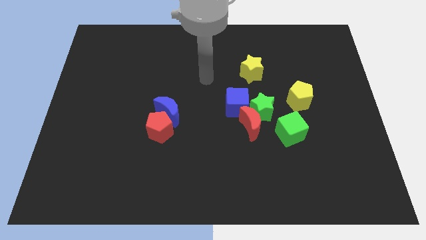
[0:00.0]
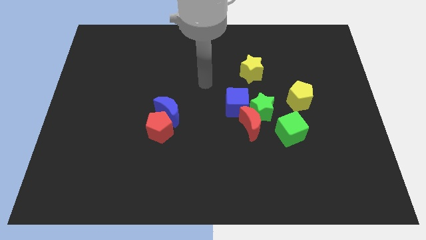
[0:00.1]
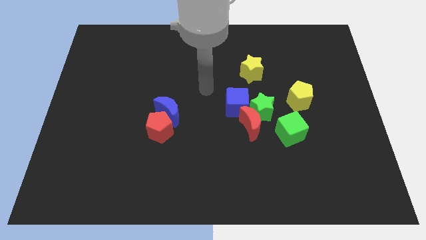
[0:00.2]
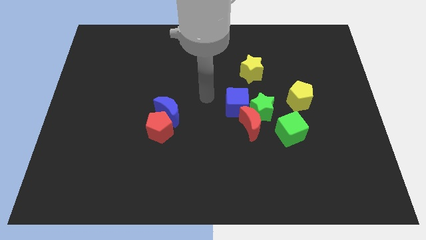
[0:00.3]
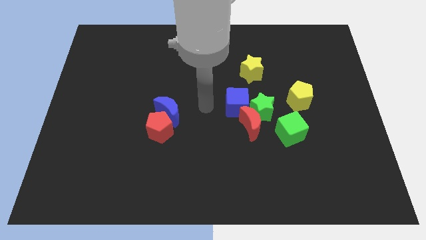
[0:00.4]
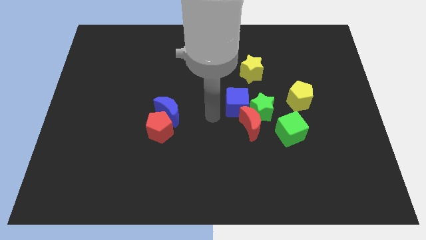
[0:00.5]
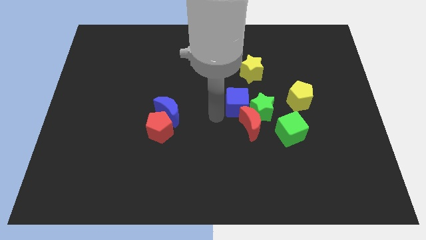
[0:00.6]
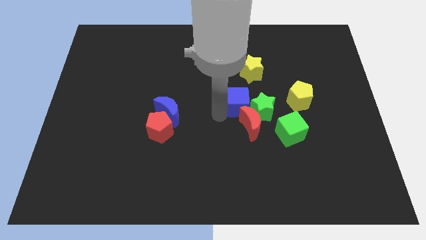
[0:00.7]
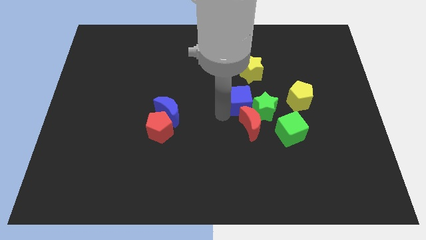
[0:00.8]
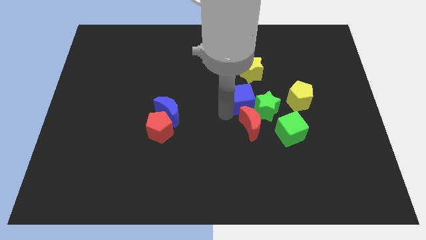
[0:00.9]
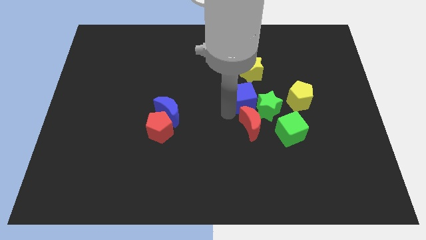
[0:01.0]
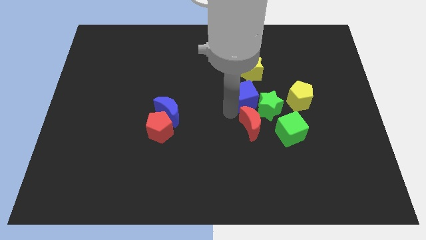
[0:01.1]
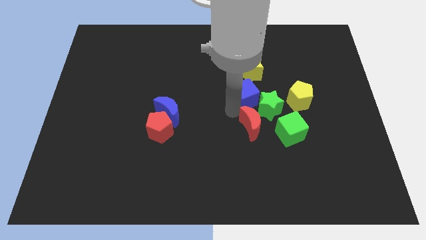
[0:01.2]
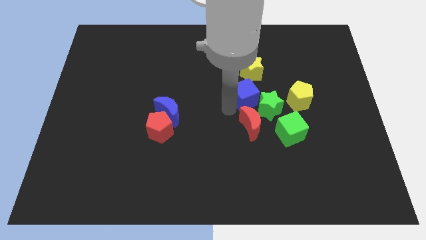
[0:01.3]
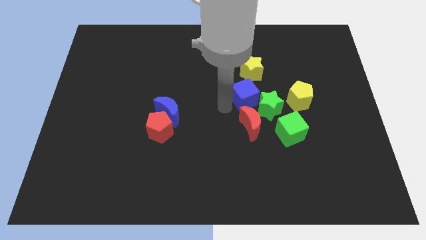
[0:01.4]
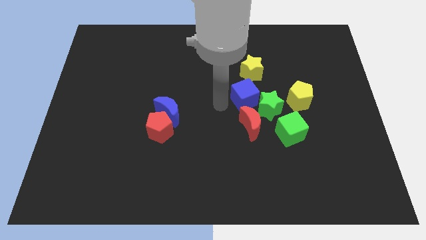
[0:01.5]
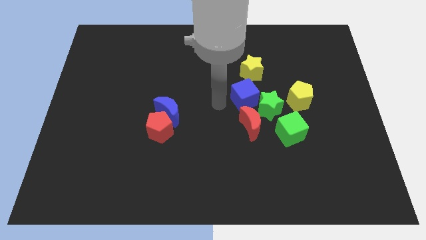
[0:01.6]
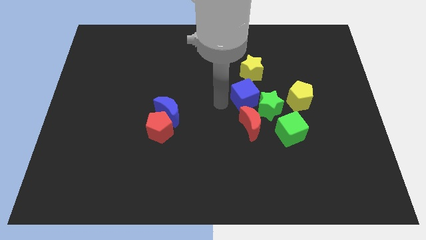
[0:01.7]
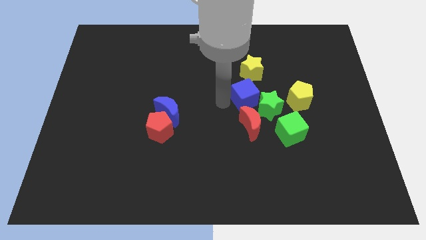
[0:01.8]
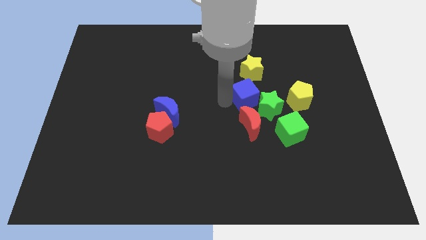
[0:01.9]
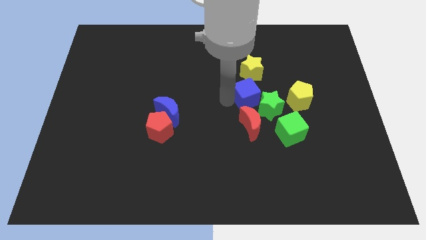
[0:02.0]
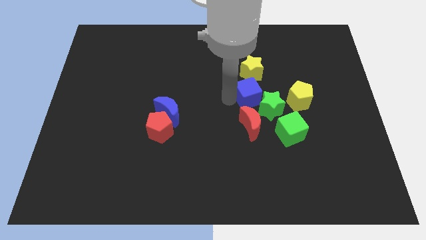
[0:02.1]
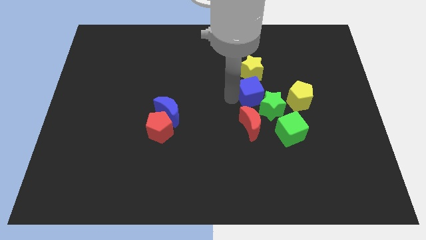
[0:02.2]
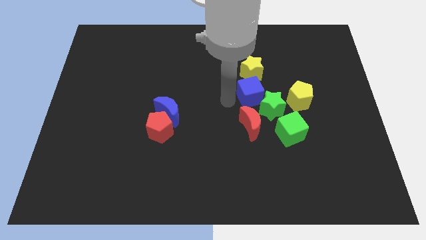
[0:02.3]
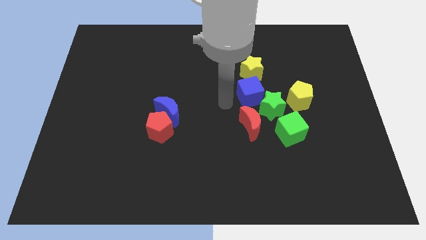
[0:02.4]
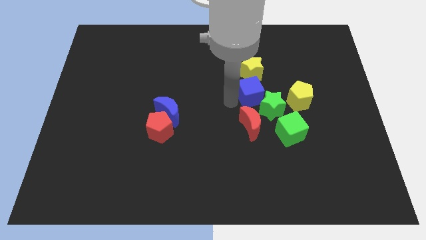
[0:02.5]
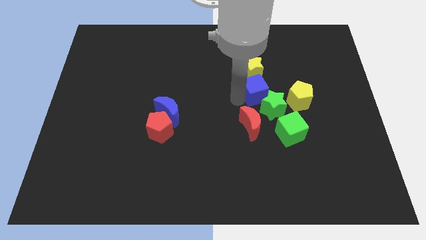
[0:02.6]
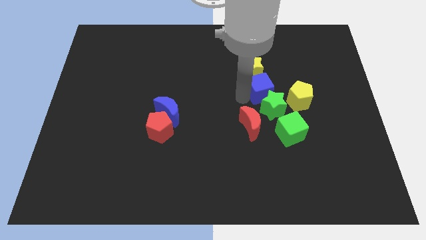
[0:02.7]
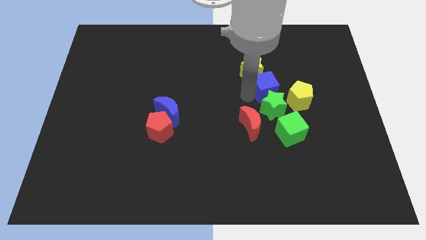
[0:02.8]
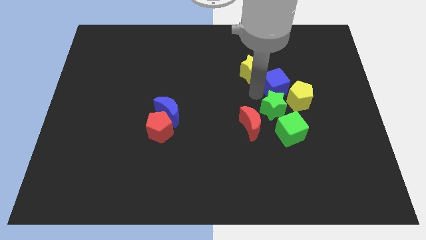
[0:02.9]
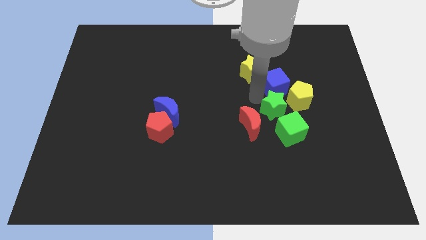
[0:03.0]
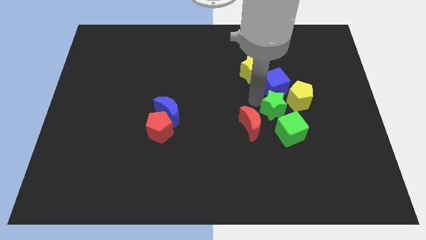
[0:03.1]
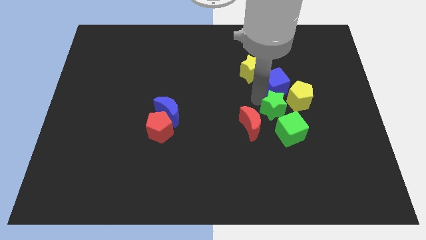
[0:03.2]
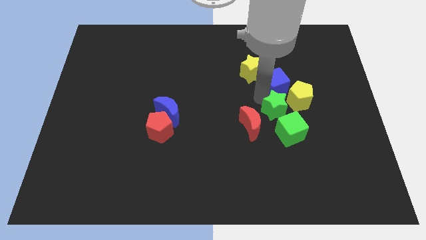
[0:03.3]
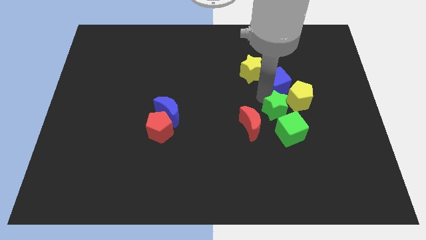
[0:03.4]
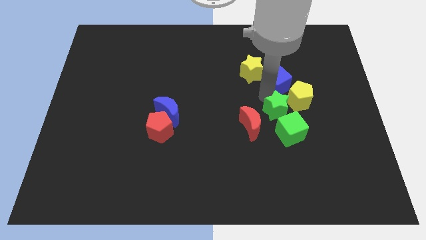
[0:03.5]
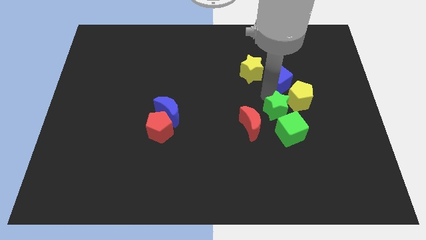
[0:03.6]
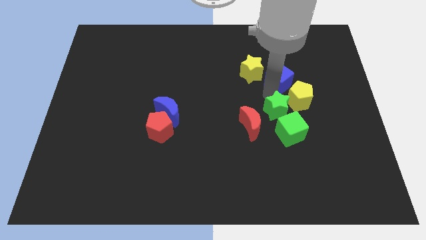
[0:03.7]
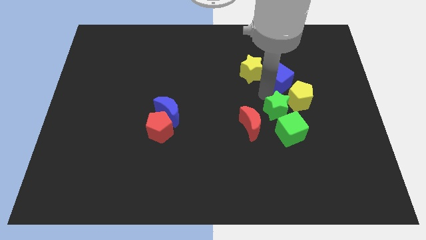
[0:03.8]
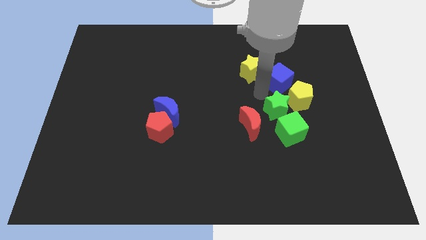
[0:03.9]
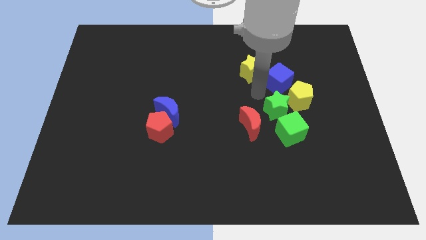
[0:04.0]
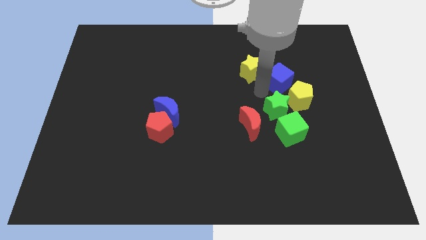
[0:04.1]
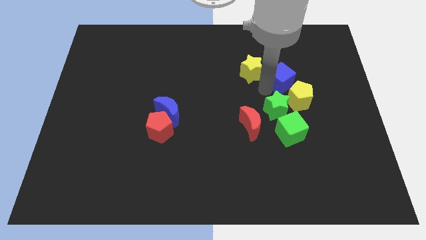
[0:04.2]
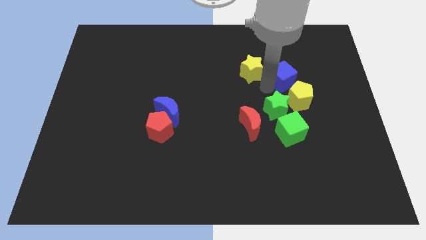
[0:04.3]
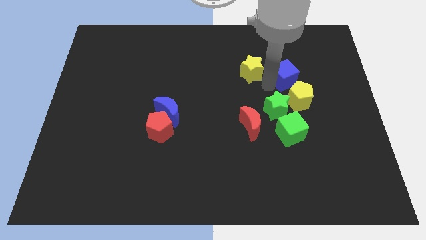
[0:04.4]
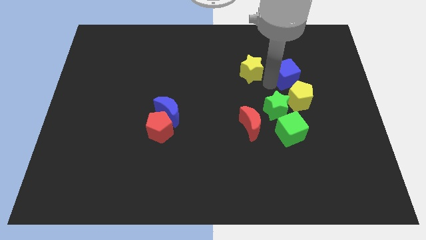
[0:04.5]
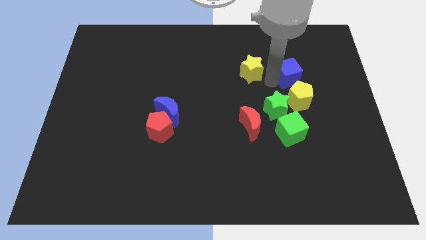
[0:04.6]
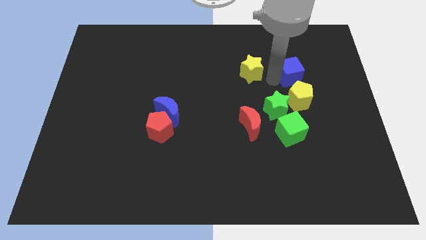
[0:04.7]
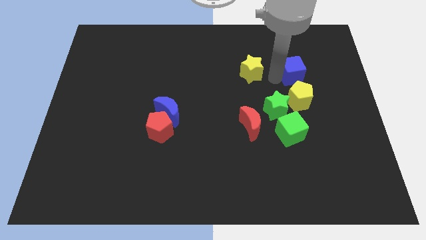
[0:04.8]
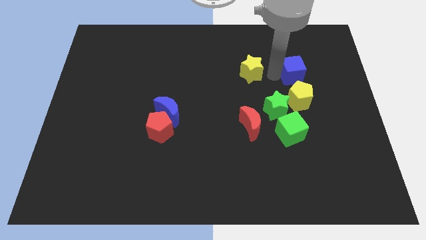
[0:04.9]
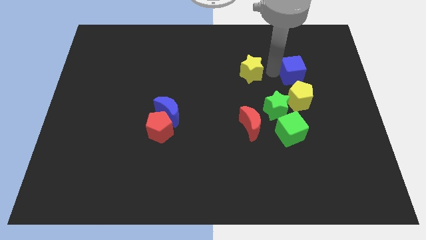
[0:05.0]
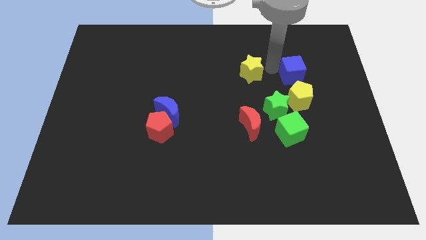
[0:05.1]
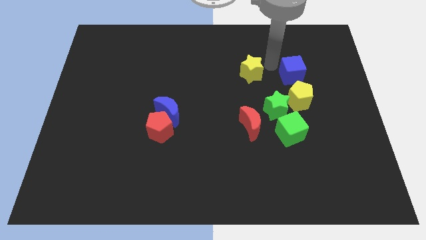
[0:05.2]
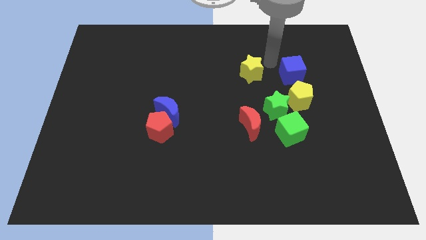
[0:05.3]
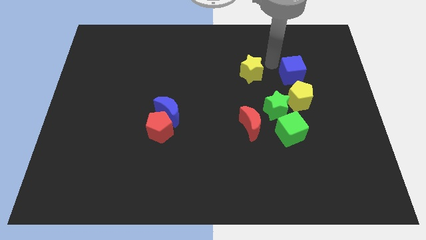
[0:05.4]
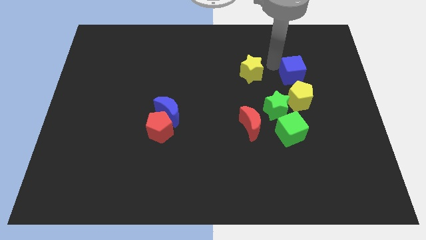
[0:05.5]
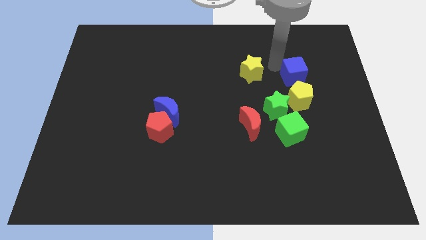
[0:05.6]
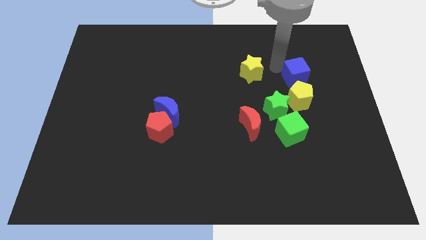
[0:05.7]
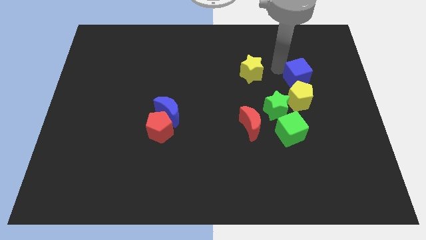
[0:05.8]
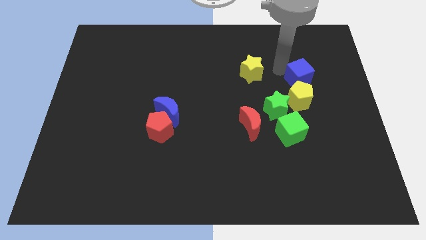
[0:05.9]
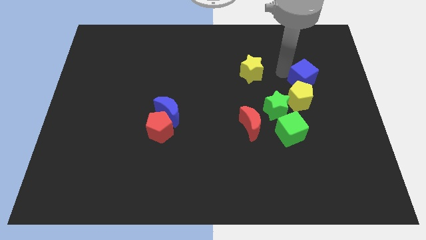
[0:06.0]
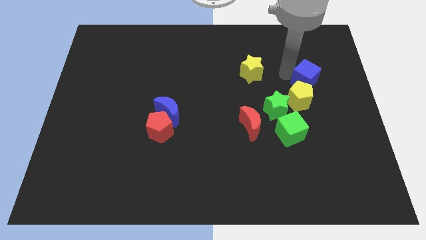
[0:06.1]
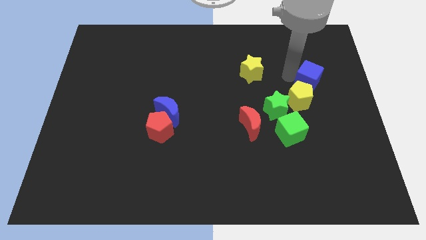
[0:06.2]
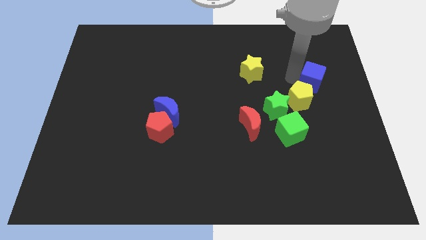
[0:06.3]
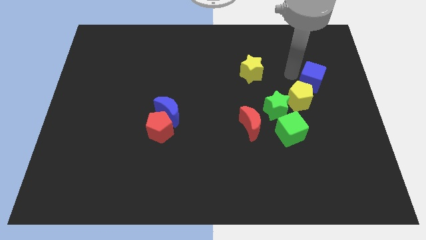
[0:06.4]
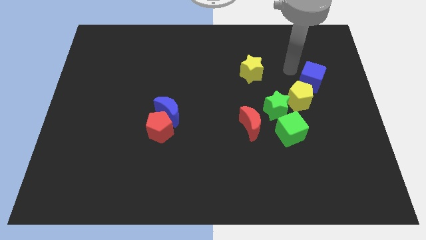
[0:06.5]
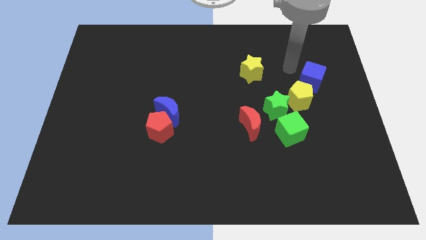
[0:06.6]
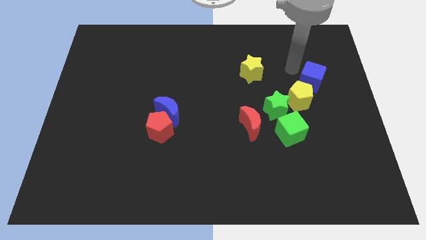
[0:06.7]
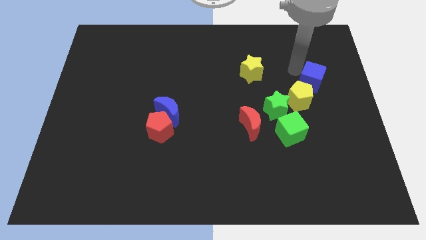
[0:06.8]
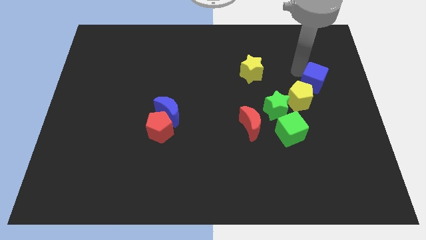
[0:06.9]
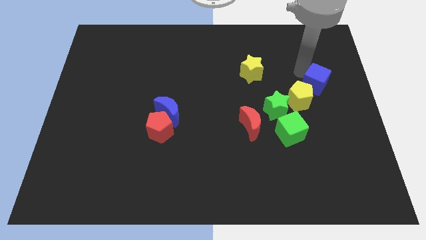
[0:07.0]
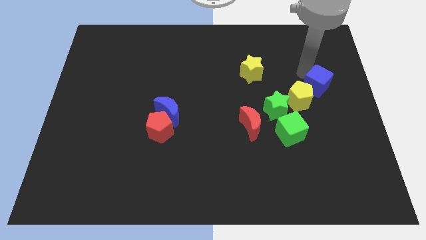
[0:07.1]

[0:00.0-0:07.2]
slide the blue cube to the right side of the board
